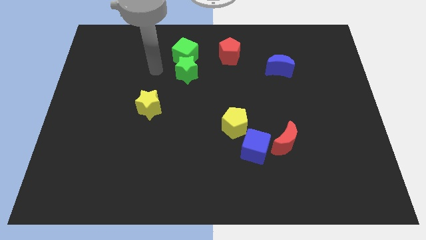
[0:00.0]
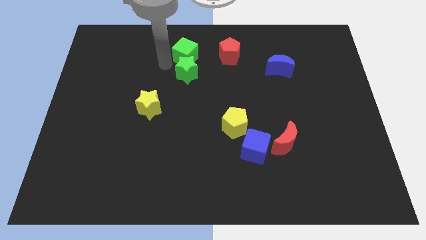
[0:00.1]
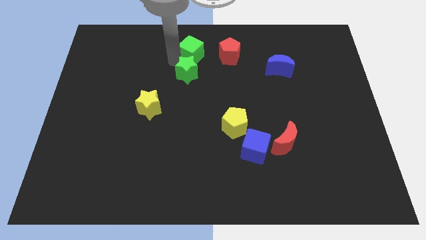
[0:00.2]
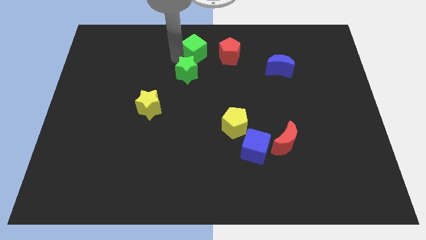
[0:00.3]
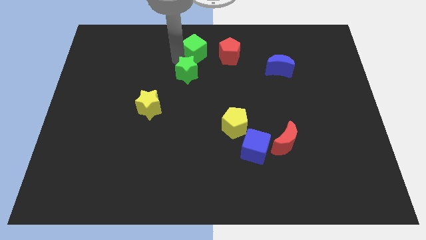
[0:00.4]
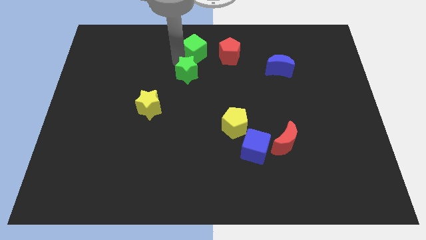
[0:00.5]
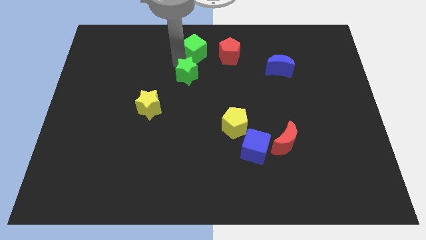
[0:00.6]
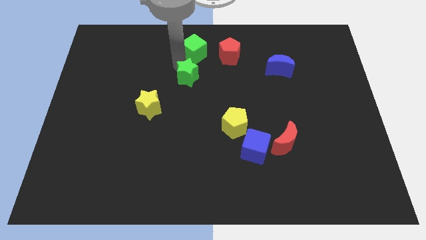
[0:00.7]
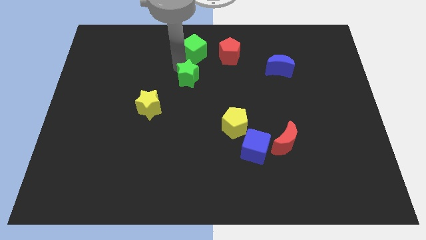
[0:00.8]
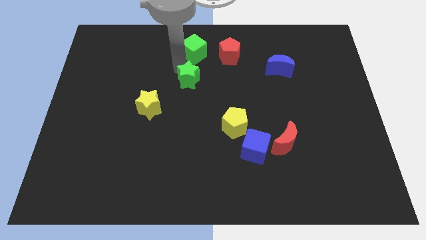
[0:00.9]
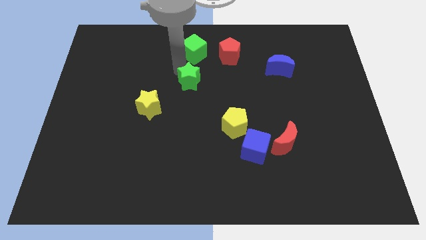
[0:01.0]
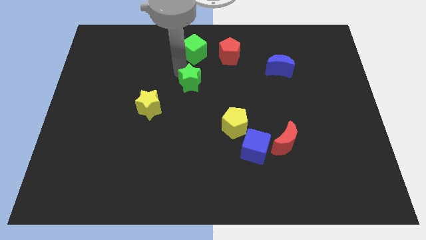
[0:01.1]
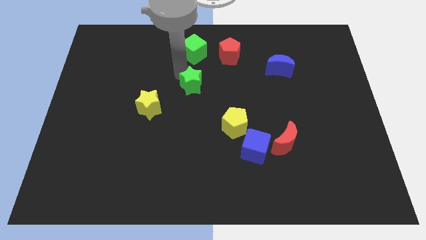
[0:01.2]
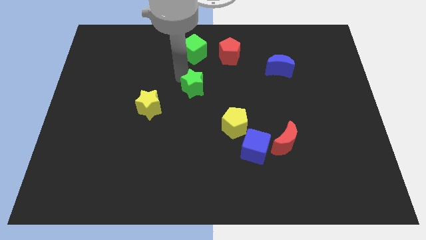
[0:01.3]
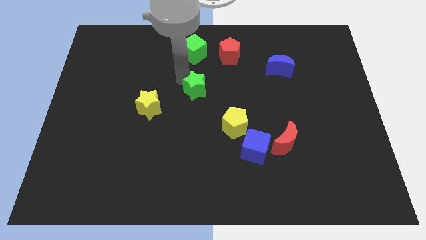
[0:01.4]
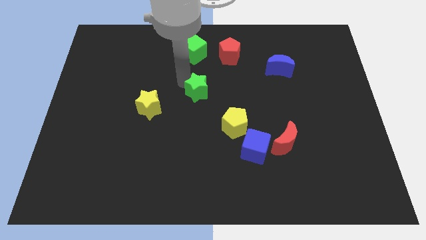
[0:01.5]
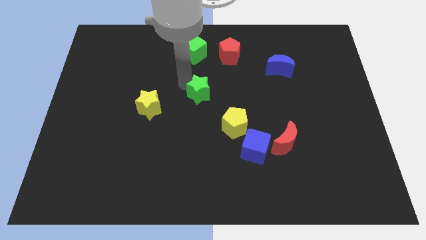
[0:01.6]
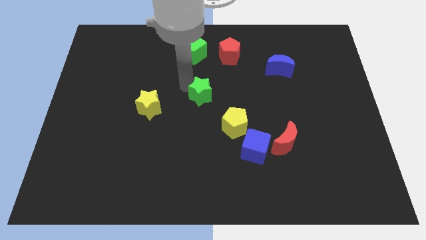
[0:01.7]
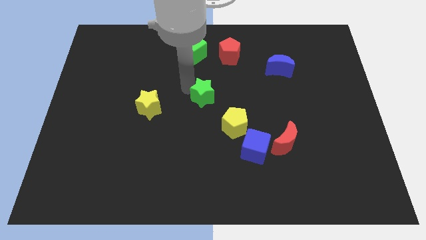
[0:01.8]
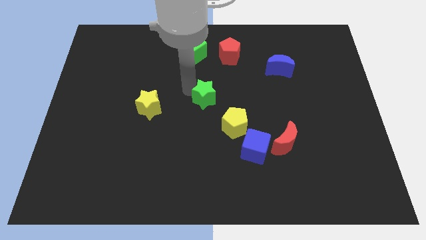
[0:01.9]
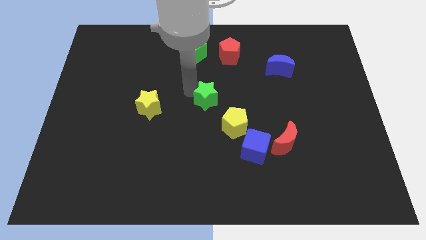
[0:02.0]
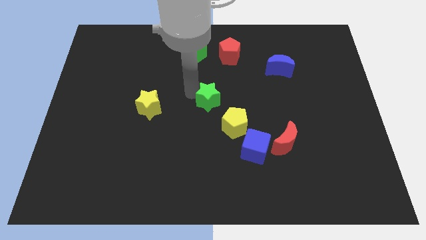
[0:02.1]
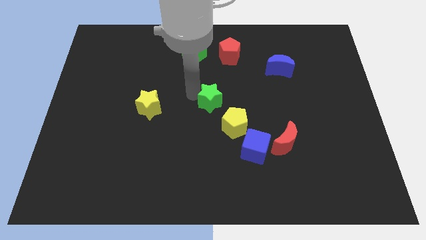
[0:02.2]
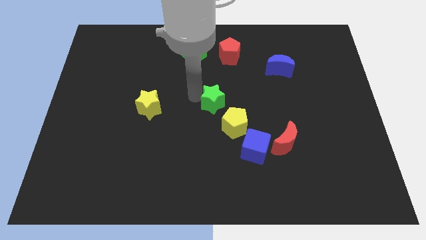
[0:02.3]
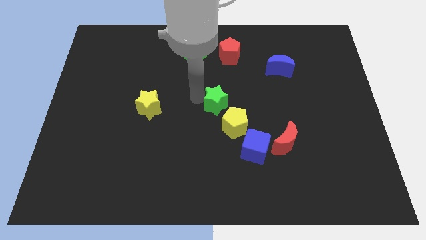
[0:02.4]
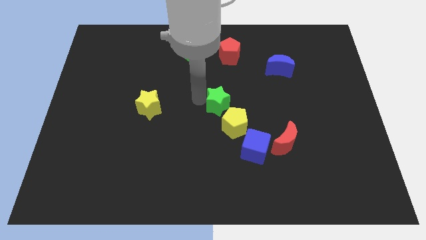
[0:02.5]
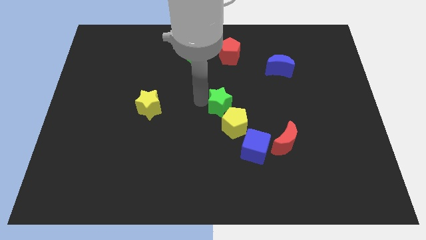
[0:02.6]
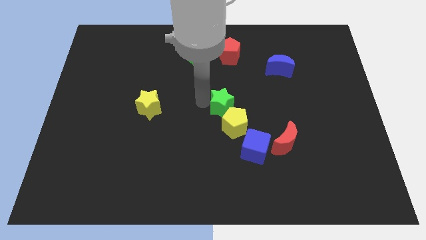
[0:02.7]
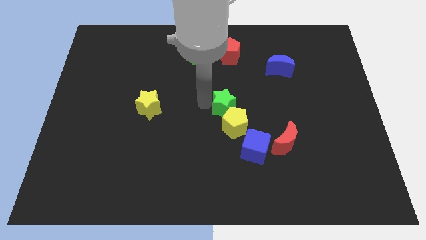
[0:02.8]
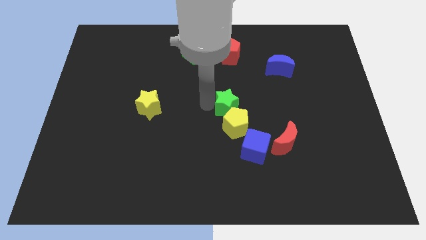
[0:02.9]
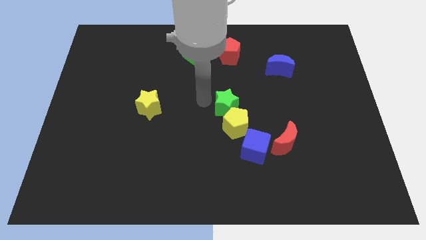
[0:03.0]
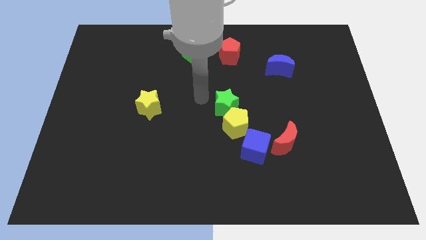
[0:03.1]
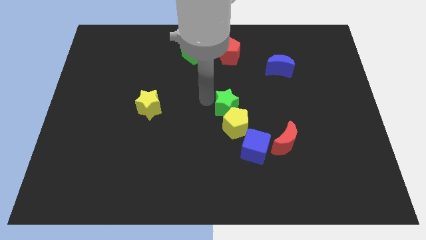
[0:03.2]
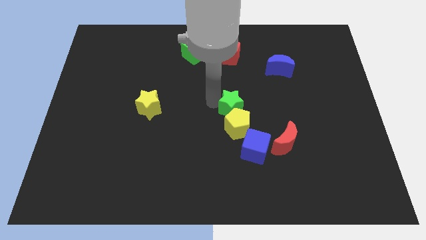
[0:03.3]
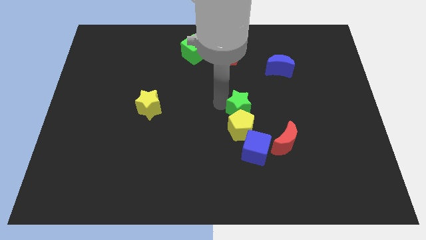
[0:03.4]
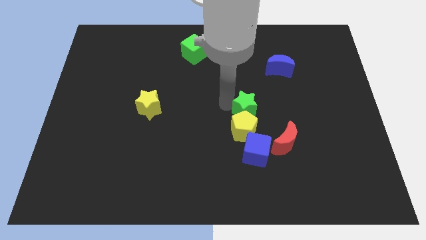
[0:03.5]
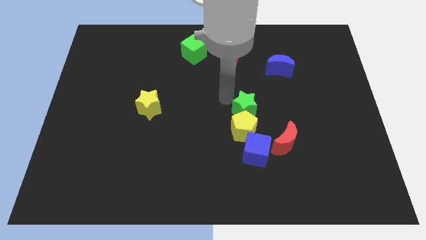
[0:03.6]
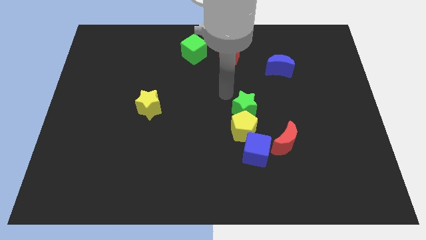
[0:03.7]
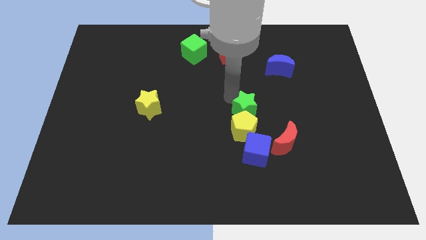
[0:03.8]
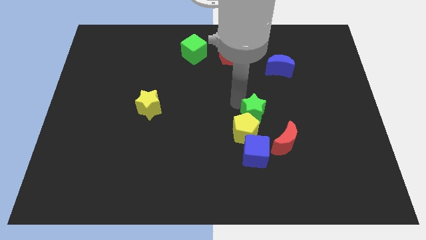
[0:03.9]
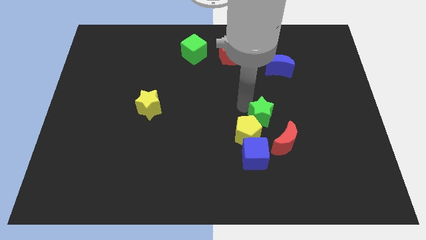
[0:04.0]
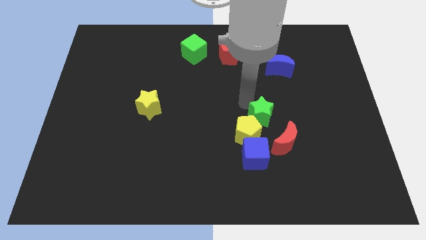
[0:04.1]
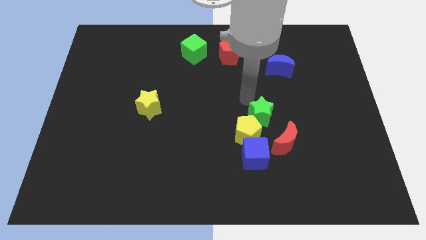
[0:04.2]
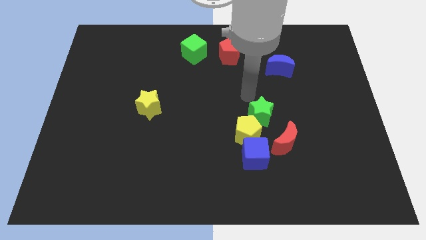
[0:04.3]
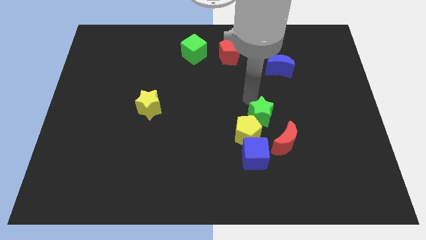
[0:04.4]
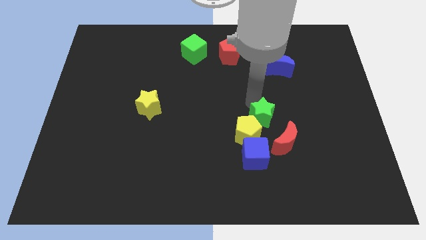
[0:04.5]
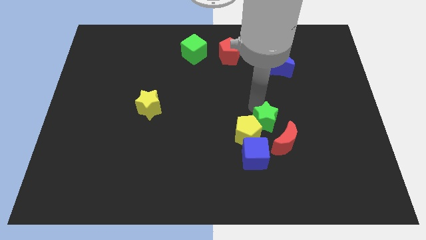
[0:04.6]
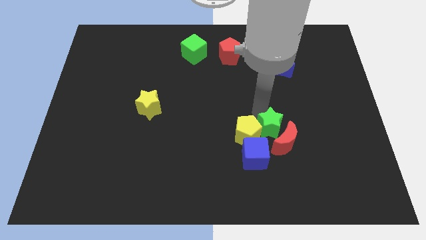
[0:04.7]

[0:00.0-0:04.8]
slide the green star to the red moon

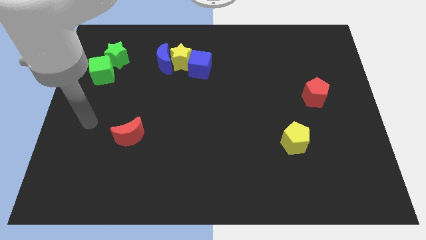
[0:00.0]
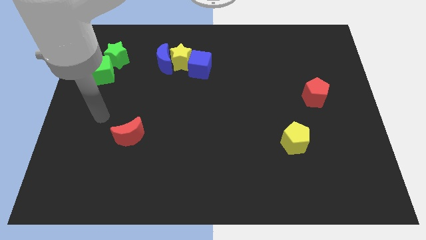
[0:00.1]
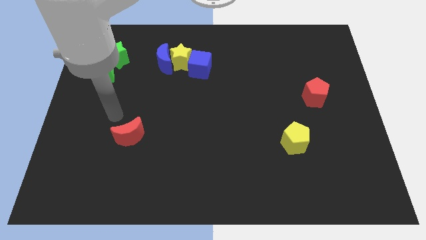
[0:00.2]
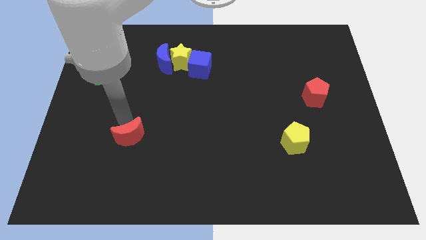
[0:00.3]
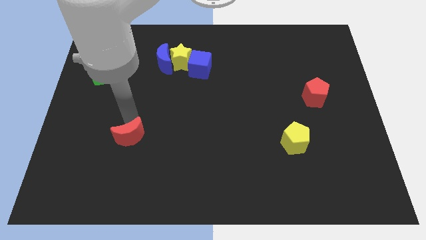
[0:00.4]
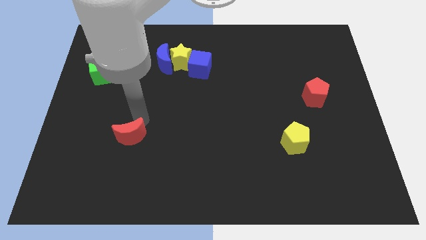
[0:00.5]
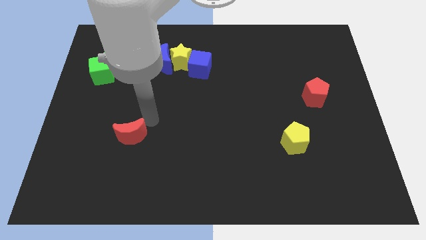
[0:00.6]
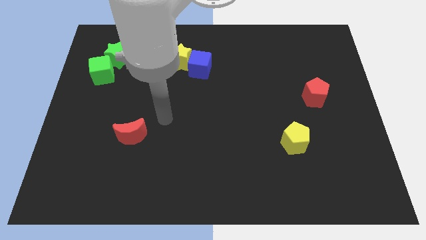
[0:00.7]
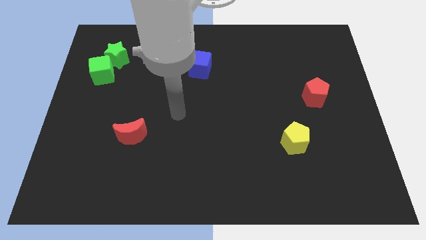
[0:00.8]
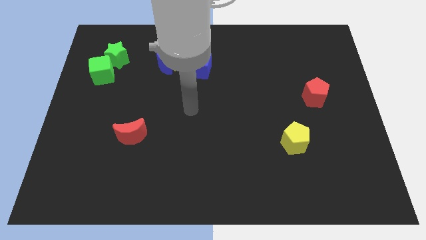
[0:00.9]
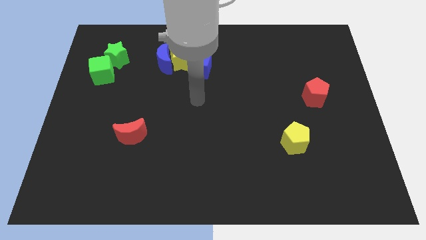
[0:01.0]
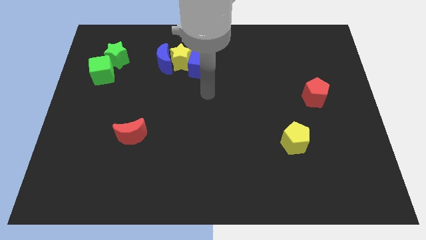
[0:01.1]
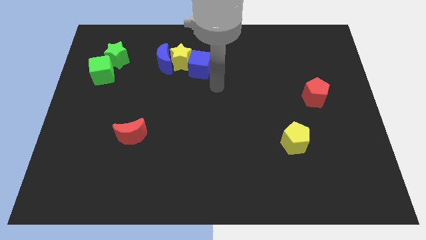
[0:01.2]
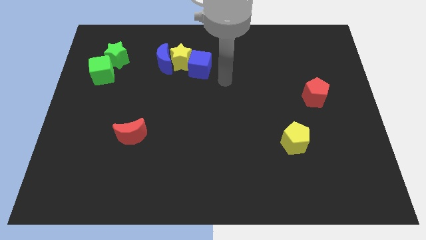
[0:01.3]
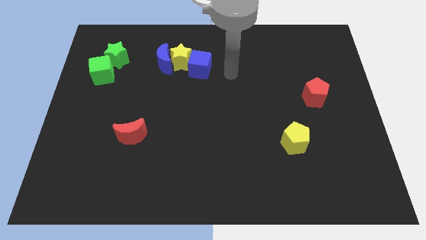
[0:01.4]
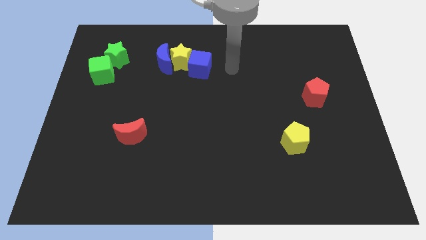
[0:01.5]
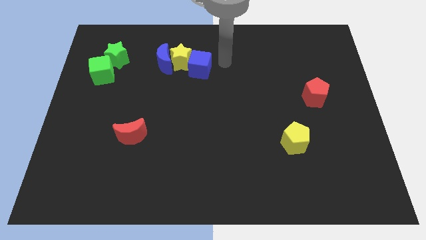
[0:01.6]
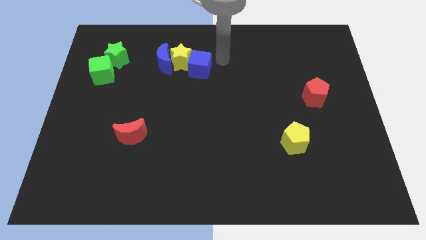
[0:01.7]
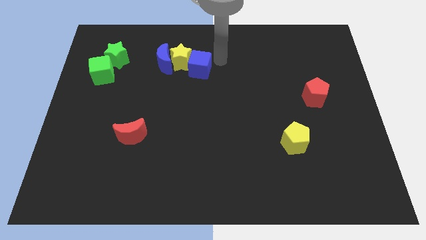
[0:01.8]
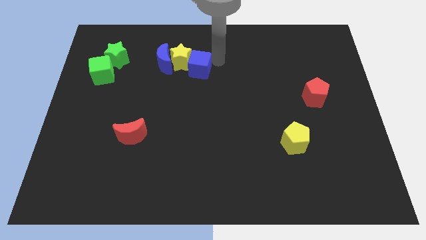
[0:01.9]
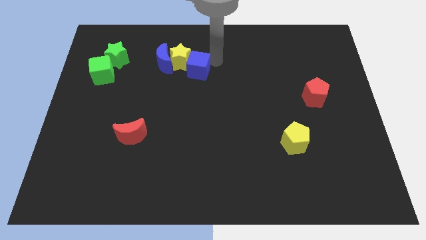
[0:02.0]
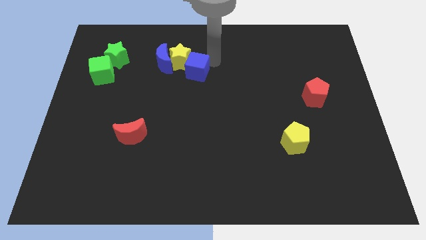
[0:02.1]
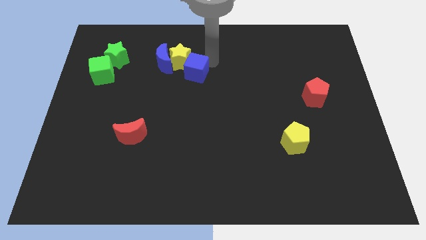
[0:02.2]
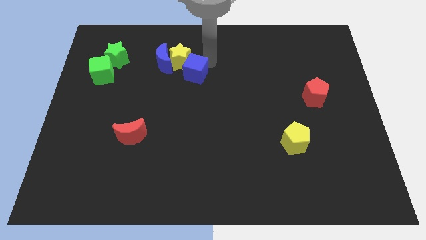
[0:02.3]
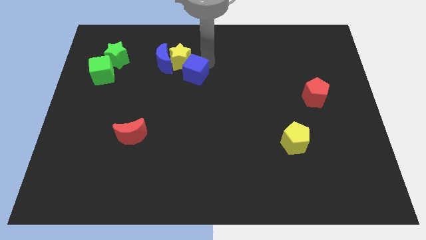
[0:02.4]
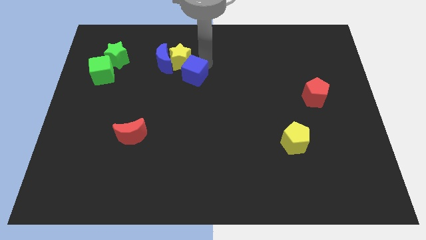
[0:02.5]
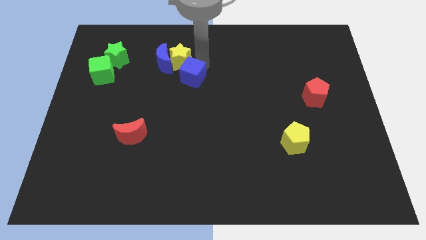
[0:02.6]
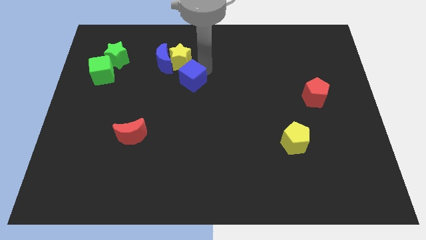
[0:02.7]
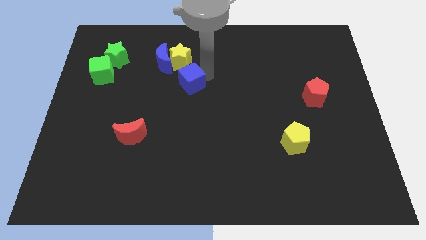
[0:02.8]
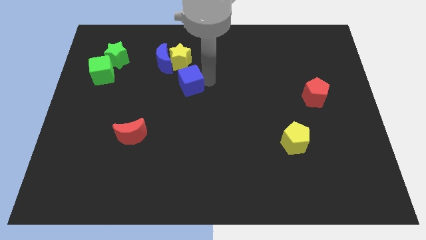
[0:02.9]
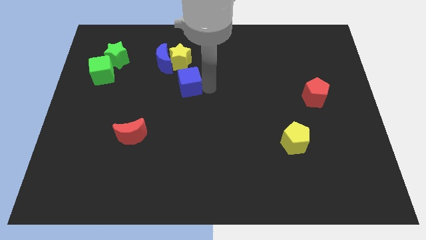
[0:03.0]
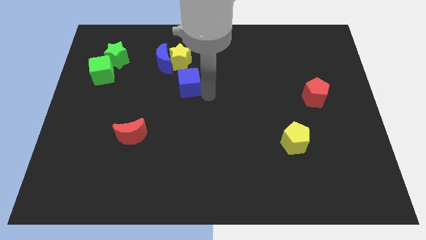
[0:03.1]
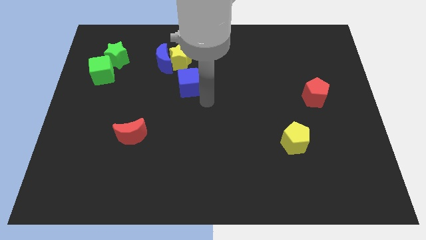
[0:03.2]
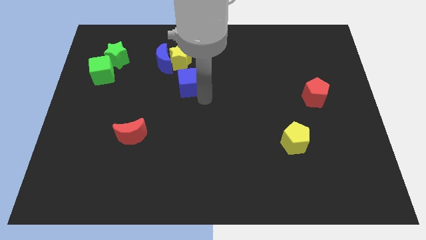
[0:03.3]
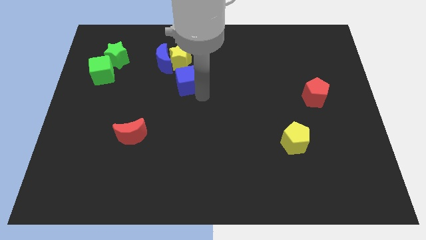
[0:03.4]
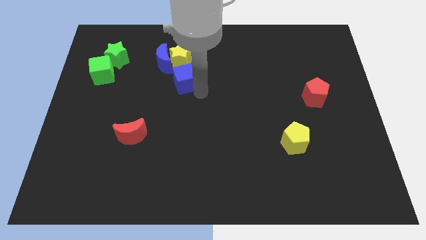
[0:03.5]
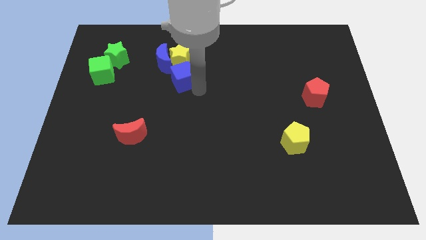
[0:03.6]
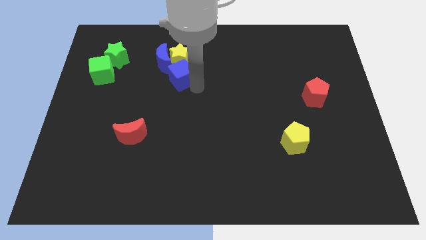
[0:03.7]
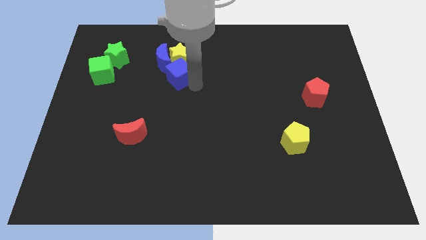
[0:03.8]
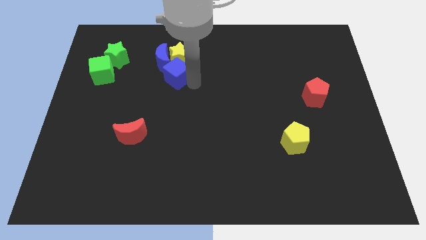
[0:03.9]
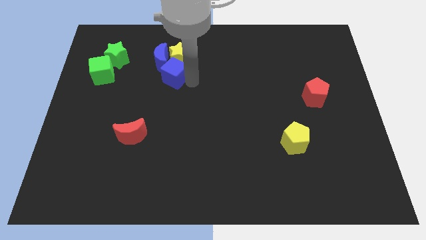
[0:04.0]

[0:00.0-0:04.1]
slide the blue cube towards the blue moon
